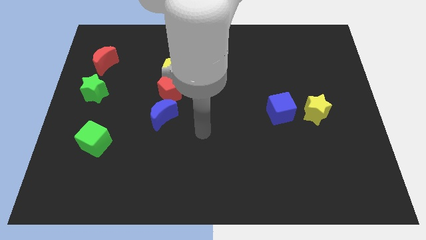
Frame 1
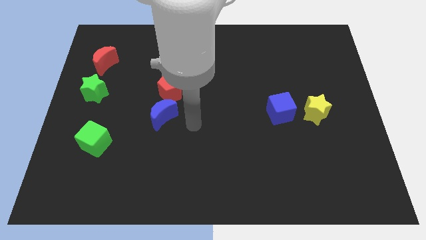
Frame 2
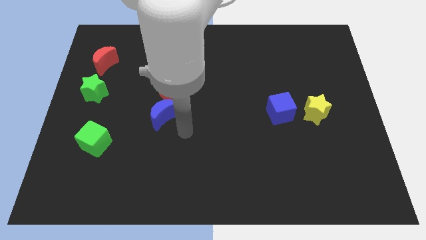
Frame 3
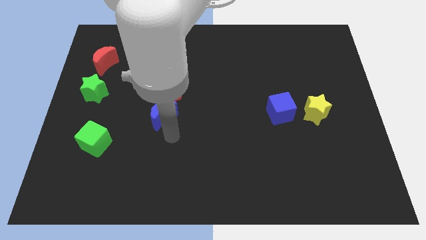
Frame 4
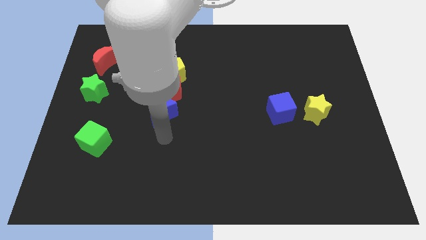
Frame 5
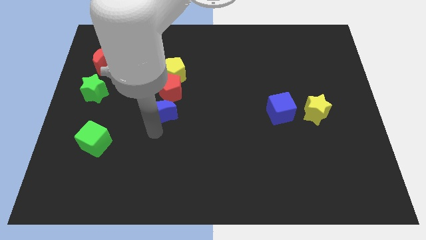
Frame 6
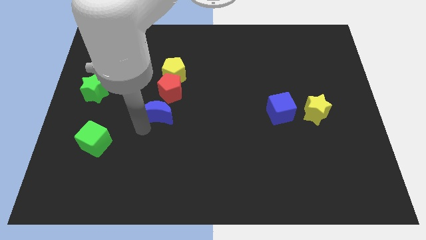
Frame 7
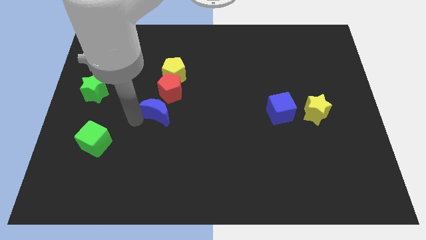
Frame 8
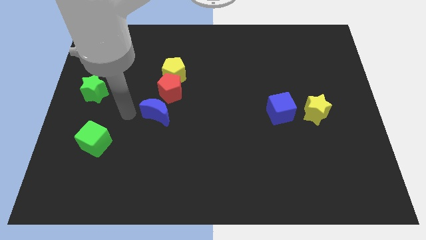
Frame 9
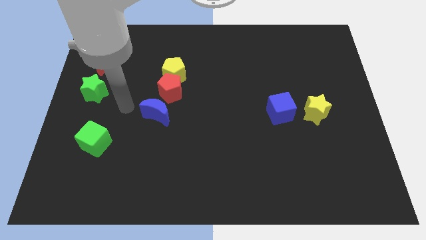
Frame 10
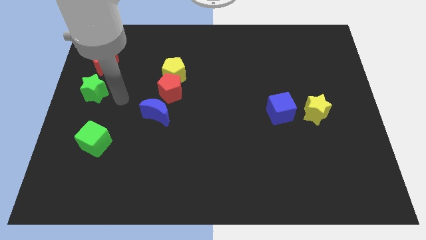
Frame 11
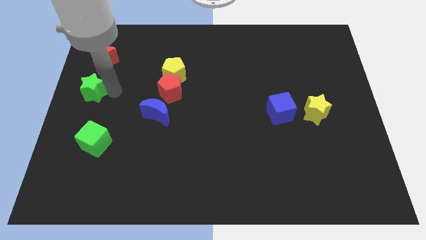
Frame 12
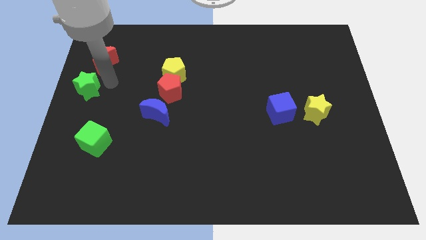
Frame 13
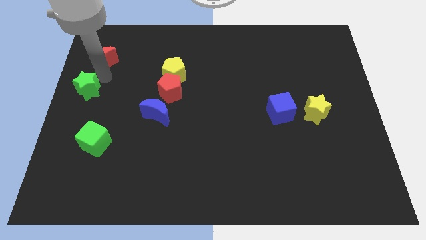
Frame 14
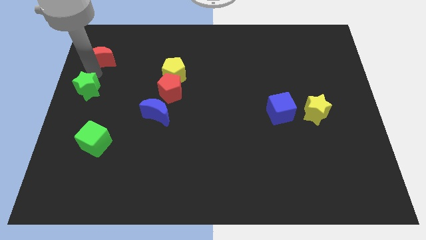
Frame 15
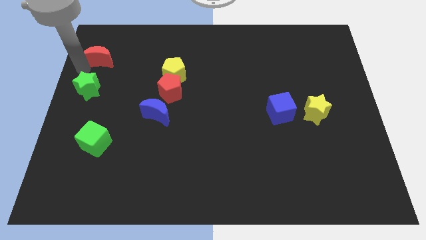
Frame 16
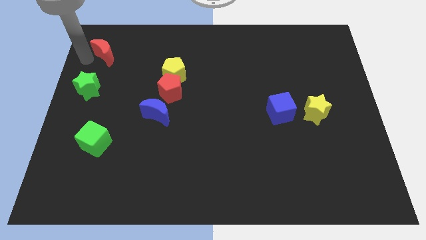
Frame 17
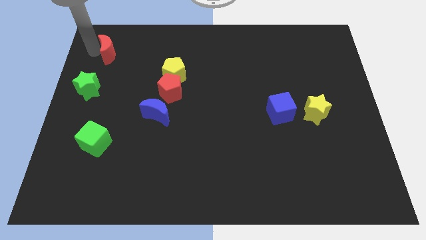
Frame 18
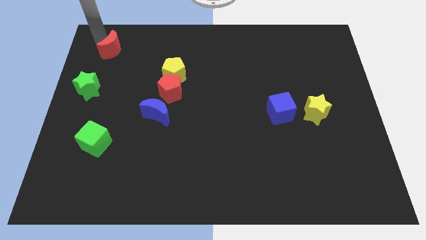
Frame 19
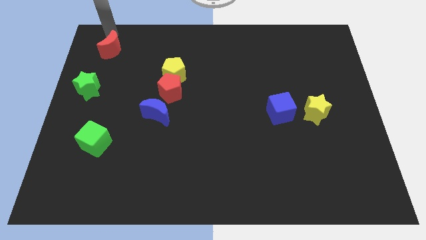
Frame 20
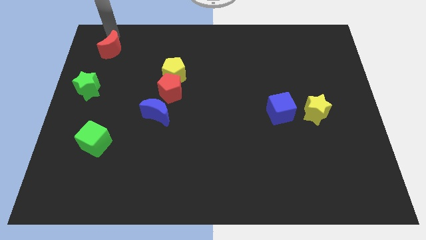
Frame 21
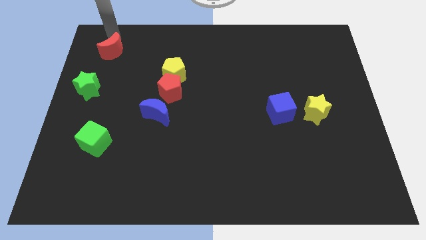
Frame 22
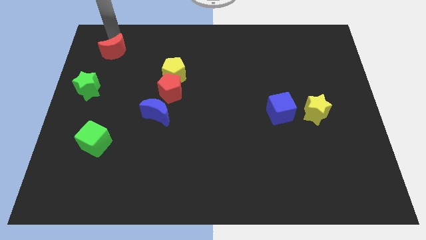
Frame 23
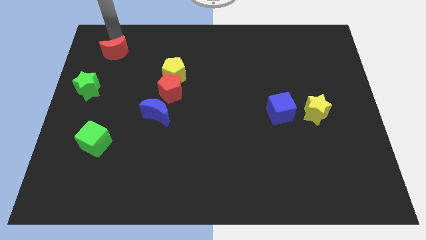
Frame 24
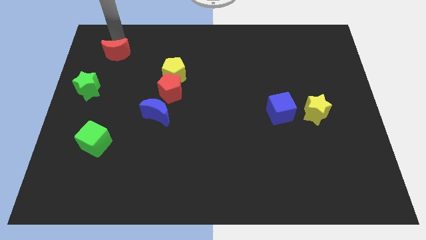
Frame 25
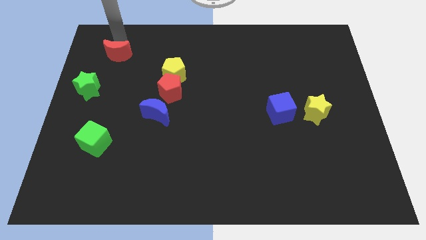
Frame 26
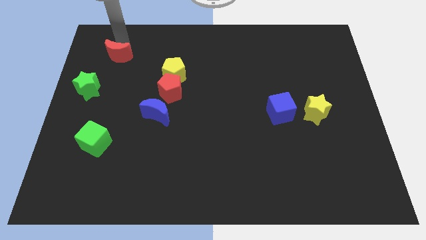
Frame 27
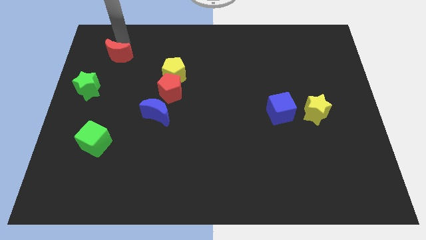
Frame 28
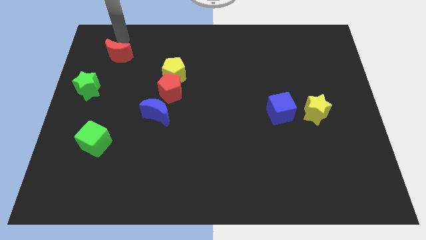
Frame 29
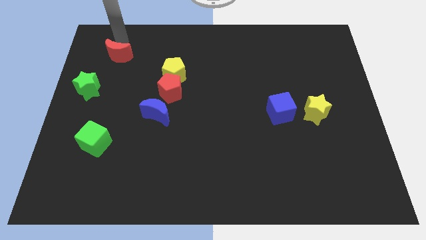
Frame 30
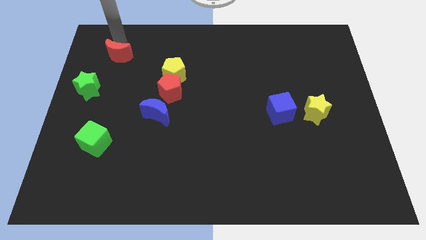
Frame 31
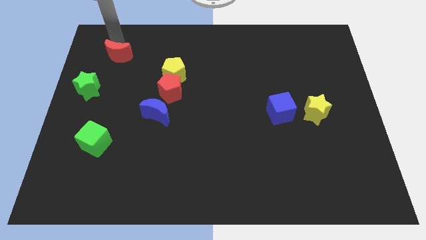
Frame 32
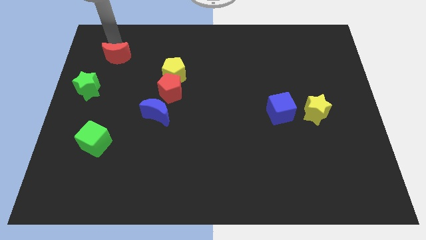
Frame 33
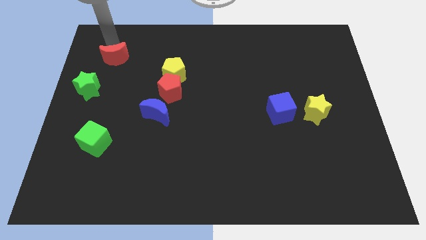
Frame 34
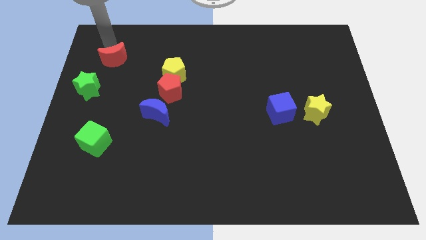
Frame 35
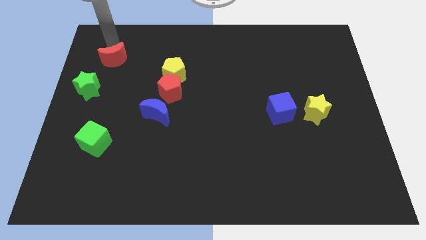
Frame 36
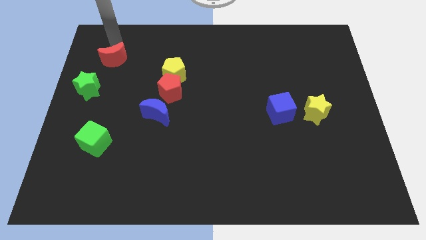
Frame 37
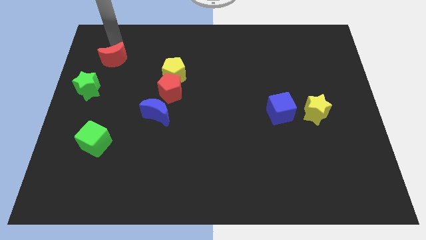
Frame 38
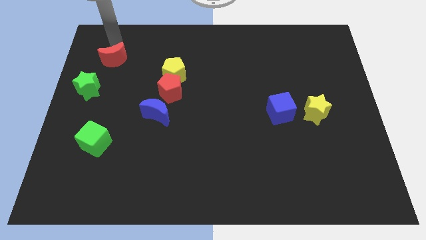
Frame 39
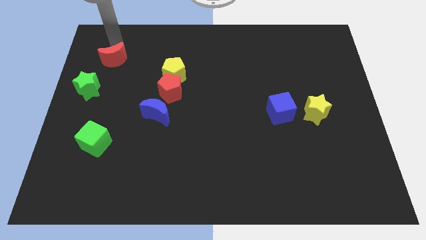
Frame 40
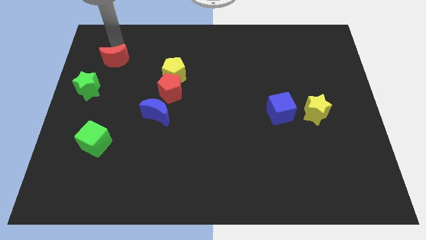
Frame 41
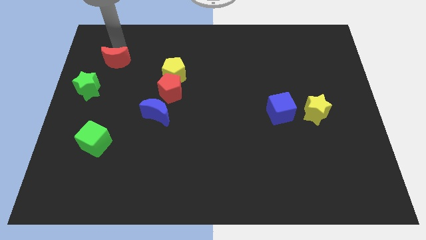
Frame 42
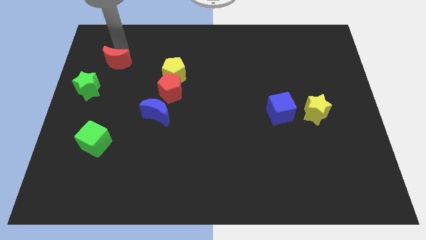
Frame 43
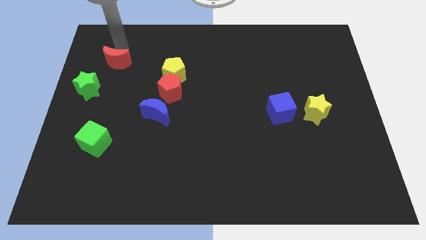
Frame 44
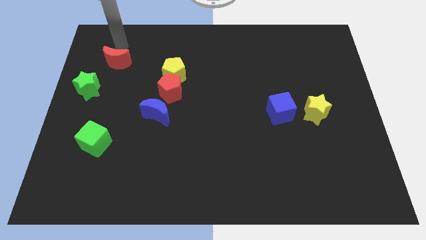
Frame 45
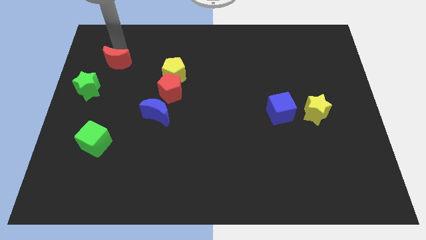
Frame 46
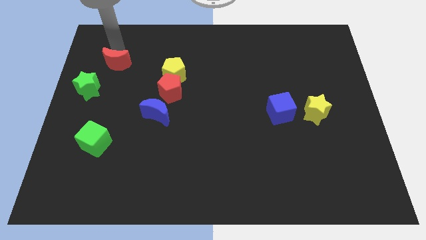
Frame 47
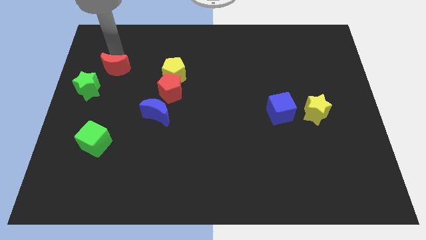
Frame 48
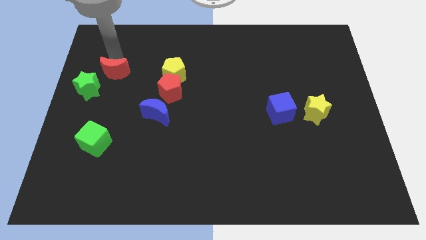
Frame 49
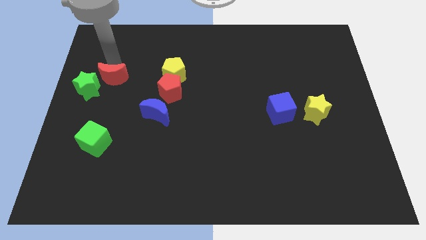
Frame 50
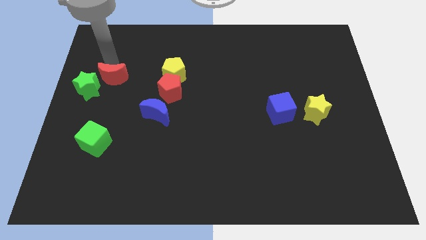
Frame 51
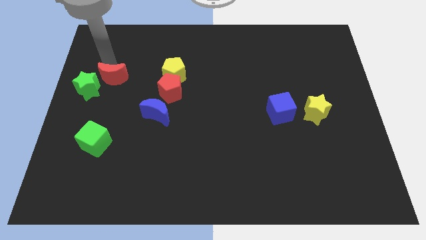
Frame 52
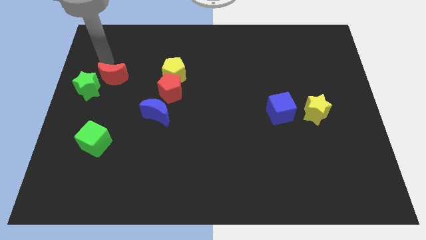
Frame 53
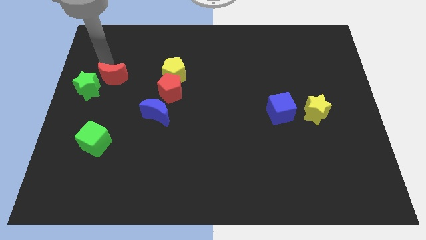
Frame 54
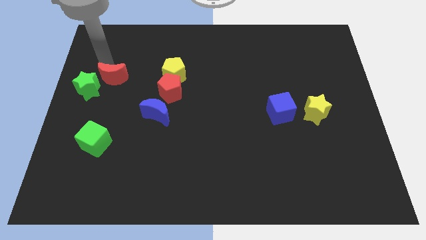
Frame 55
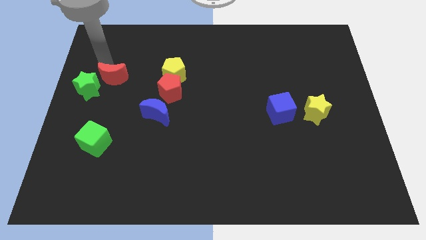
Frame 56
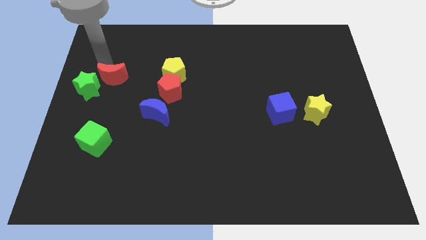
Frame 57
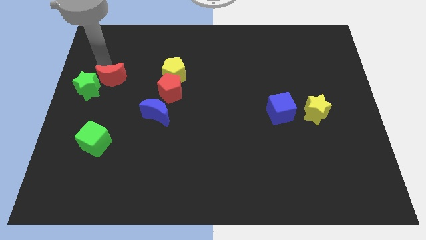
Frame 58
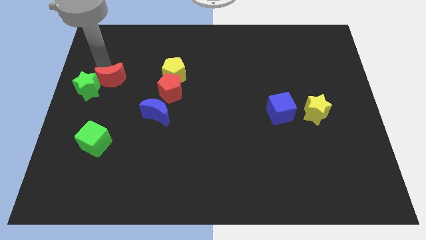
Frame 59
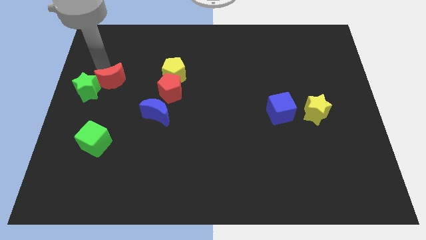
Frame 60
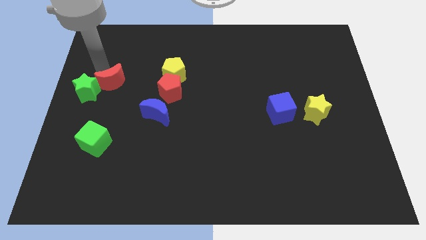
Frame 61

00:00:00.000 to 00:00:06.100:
slightly move the red moon diagonally downwards and to the right

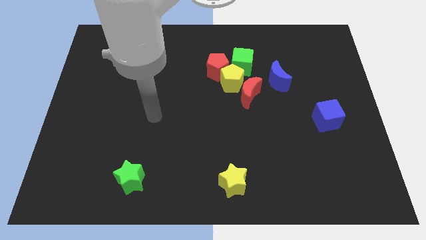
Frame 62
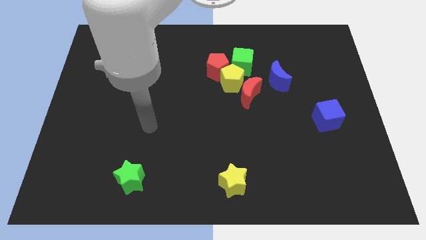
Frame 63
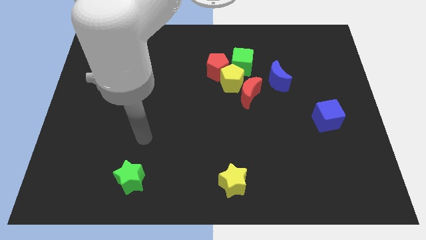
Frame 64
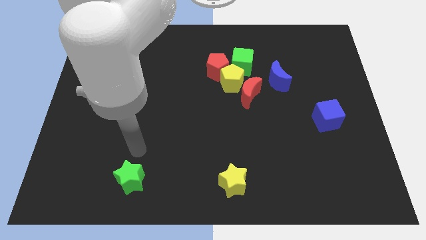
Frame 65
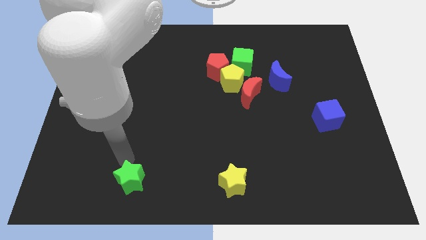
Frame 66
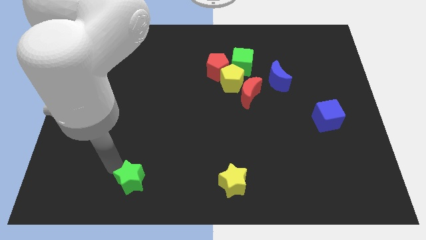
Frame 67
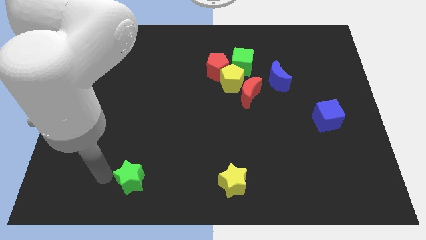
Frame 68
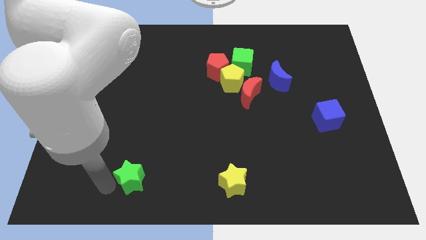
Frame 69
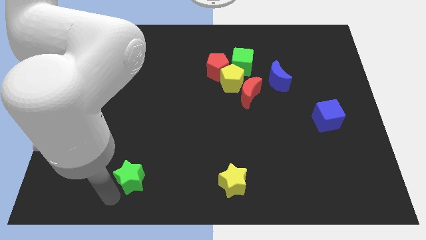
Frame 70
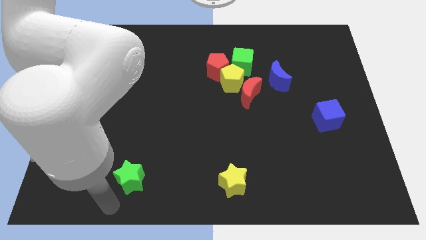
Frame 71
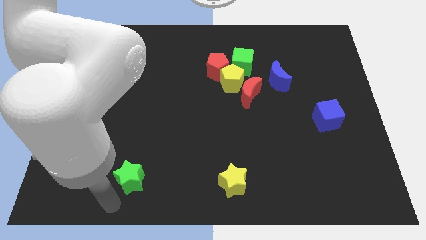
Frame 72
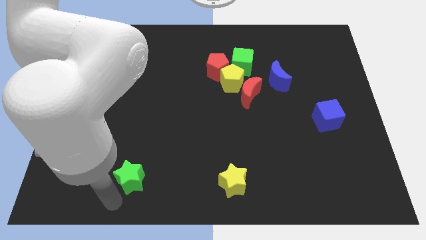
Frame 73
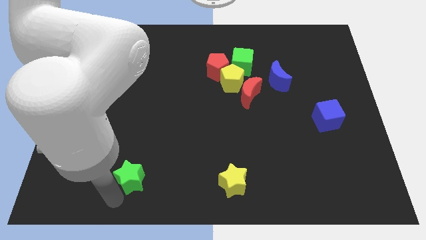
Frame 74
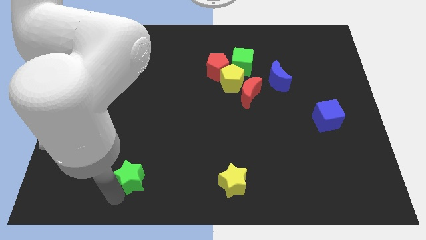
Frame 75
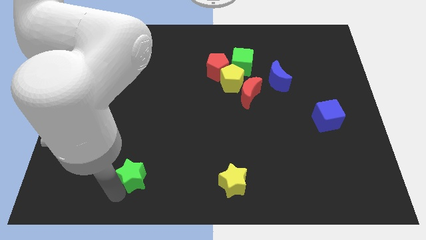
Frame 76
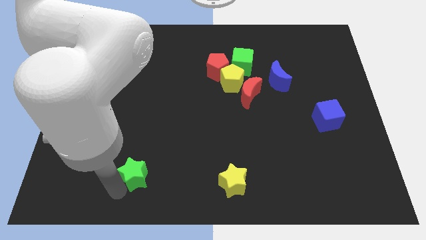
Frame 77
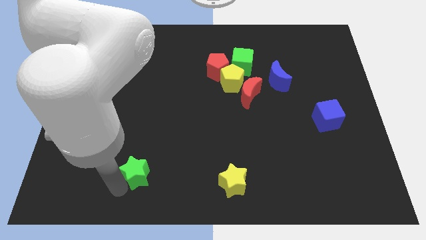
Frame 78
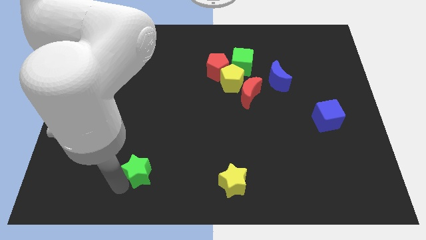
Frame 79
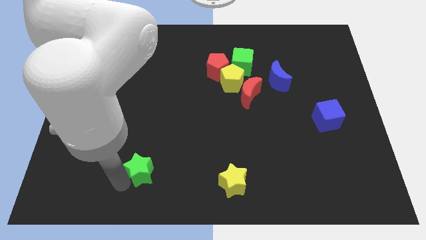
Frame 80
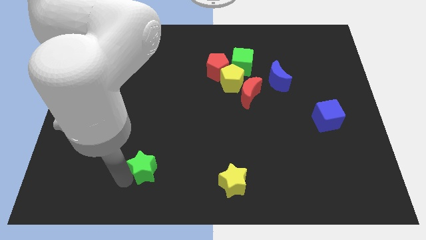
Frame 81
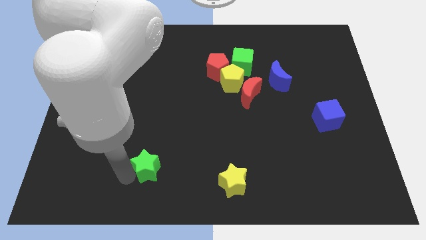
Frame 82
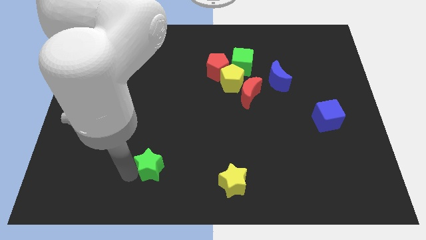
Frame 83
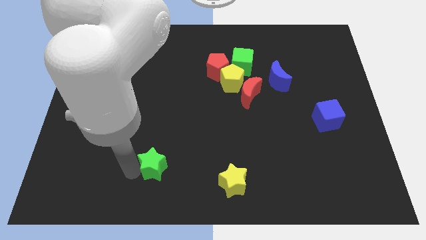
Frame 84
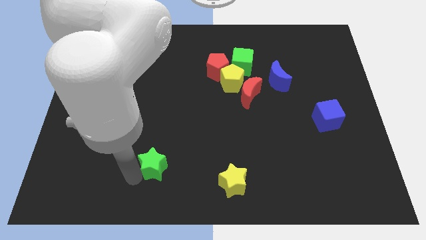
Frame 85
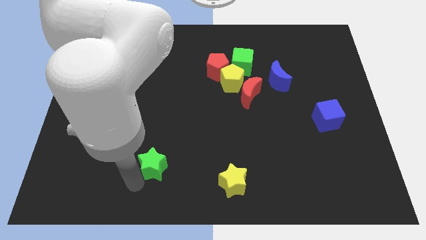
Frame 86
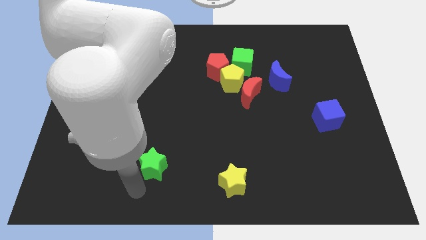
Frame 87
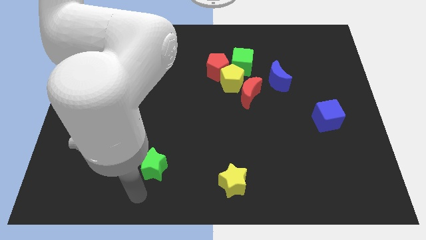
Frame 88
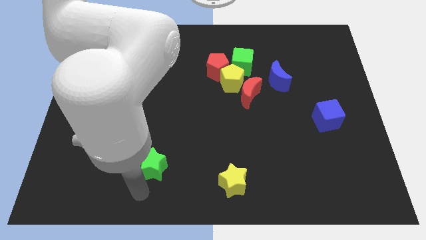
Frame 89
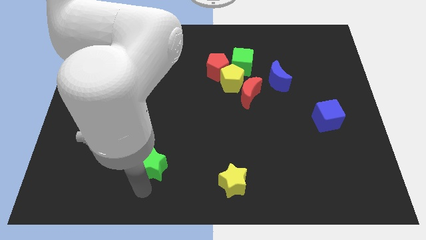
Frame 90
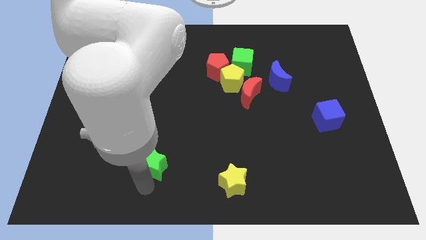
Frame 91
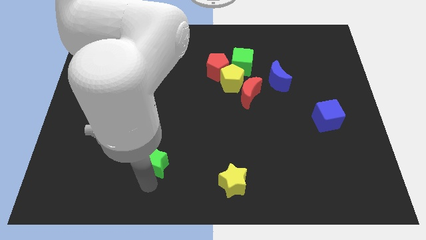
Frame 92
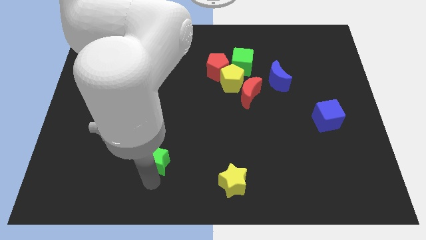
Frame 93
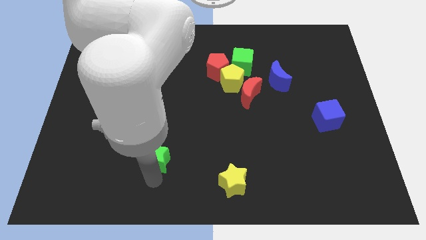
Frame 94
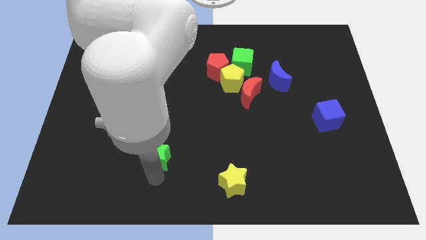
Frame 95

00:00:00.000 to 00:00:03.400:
slide the green star slightly upwards and right diagonally
